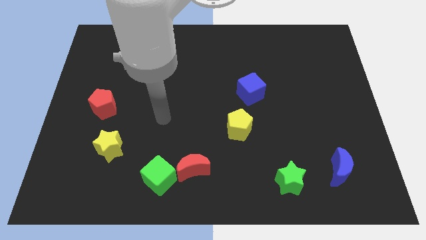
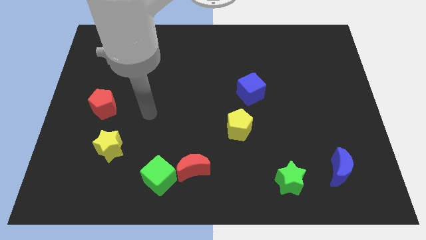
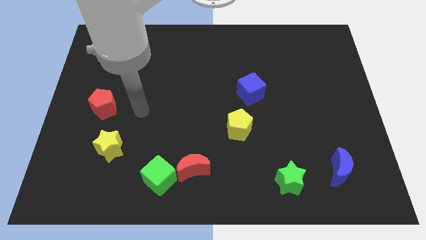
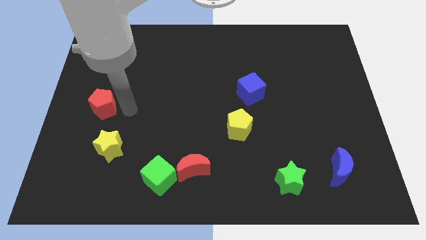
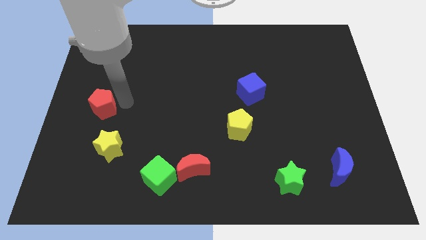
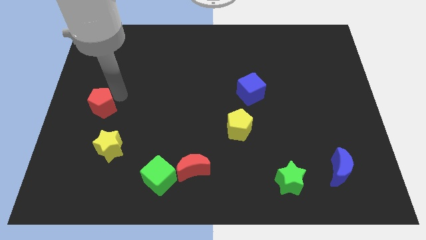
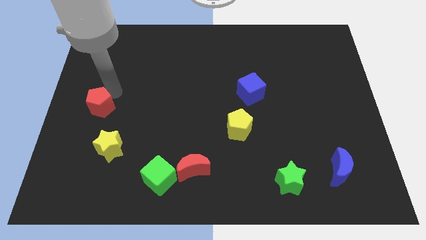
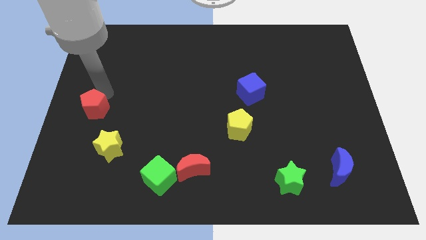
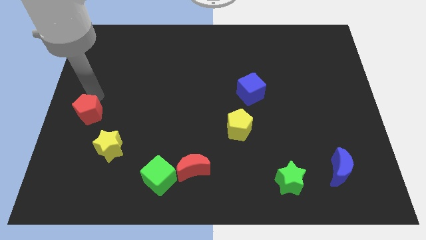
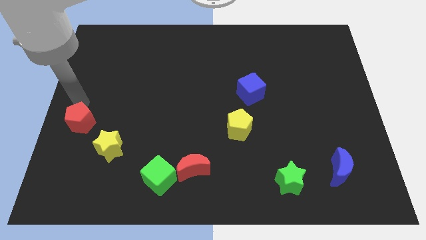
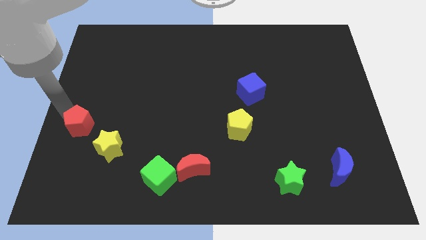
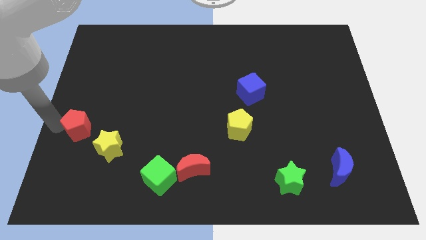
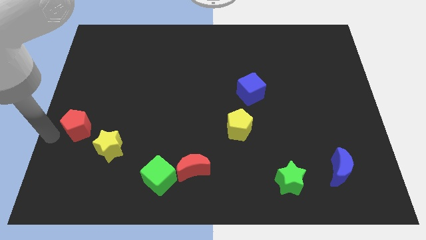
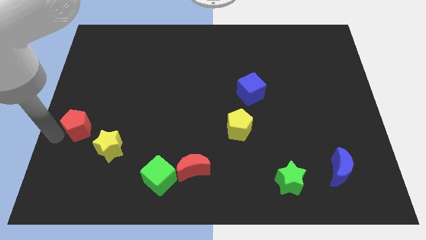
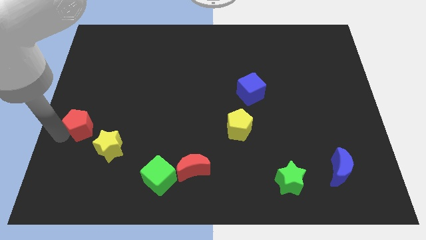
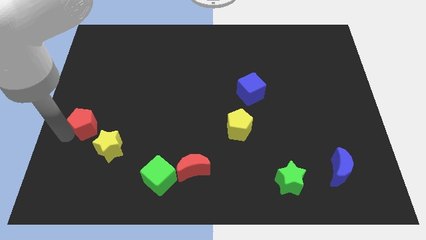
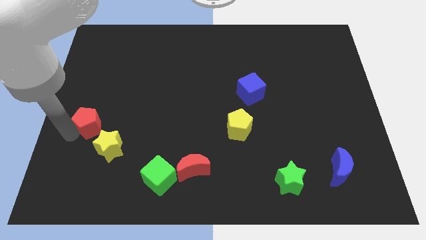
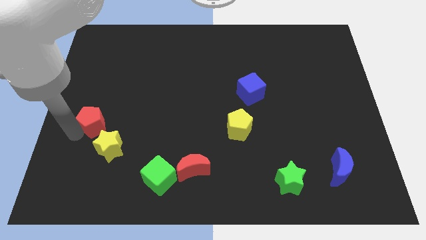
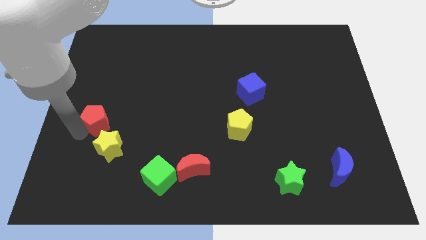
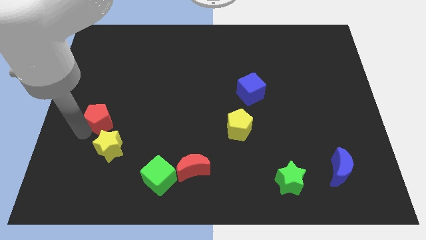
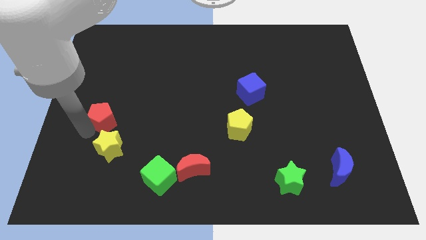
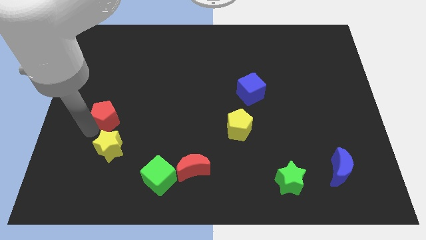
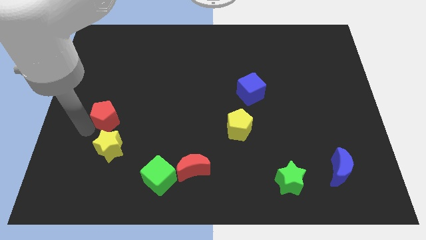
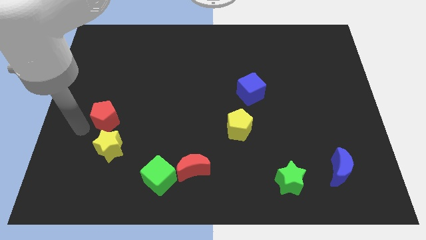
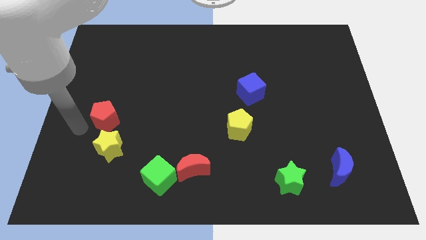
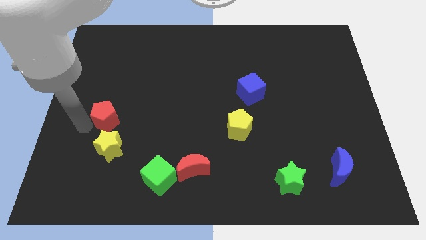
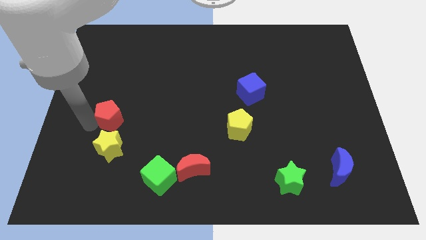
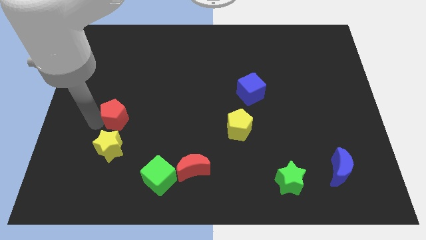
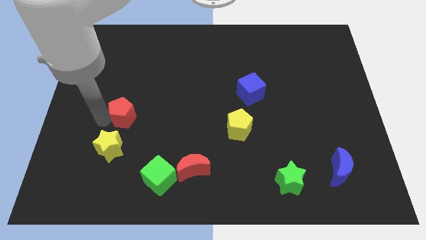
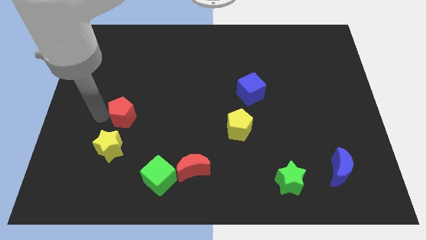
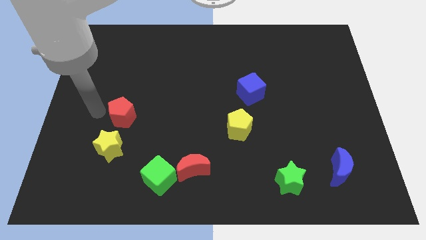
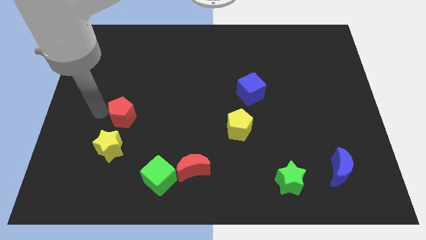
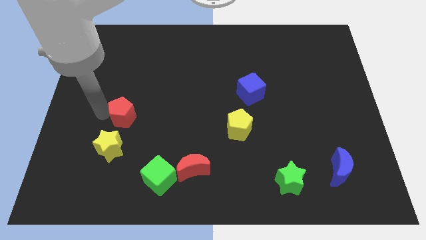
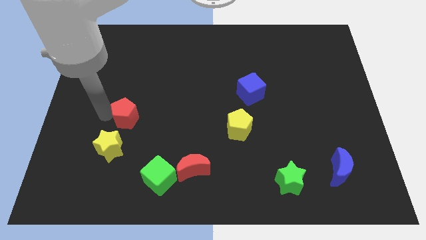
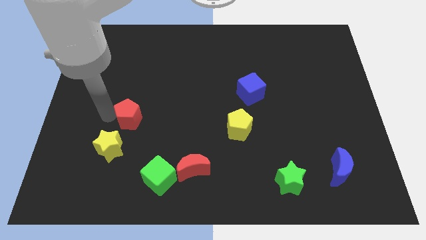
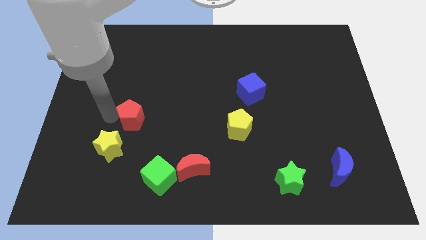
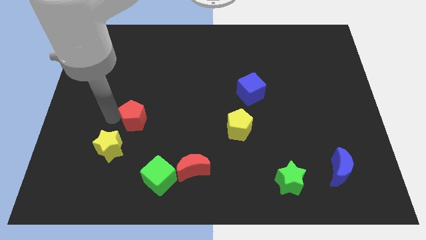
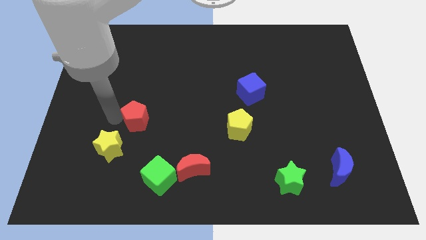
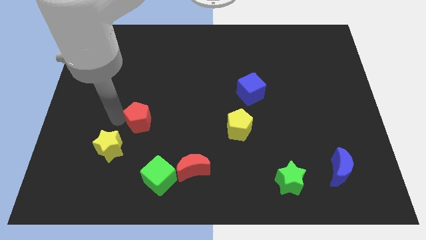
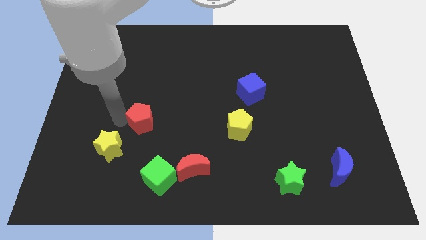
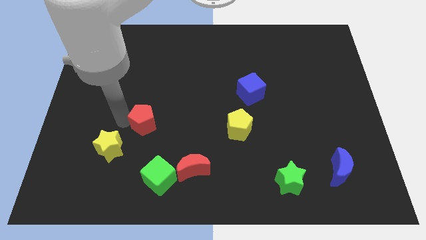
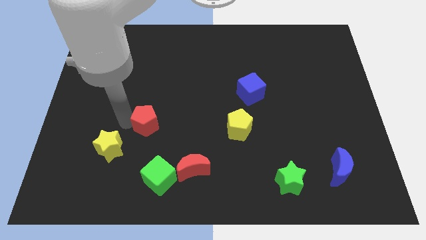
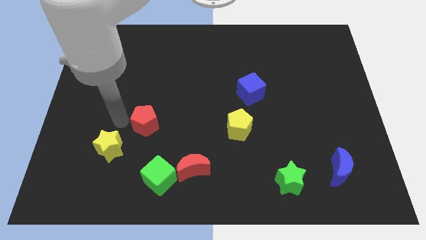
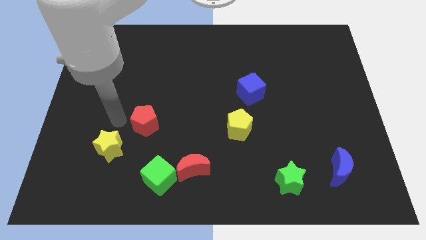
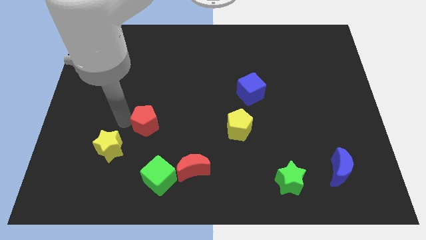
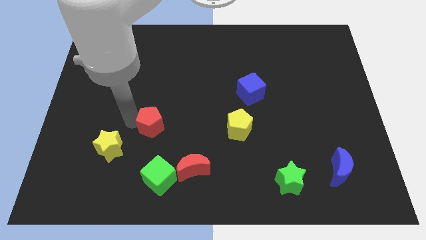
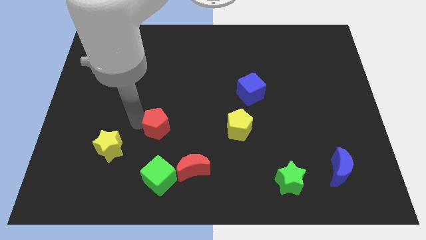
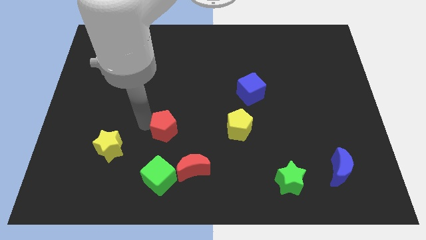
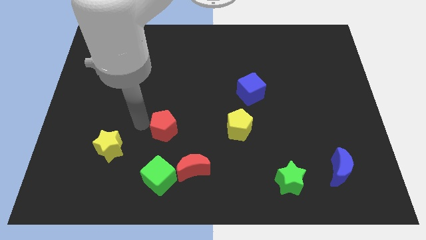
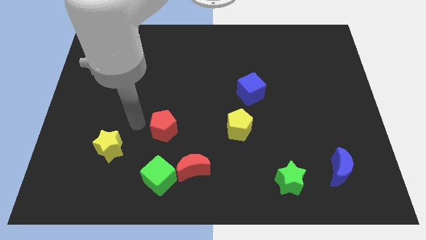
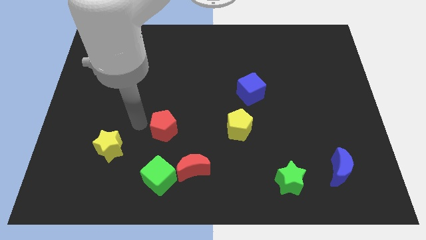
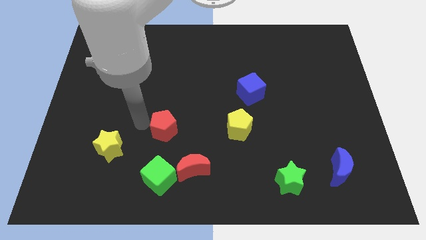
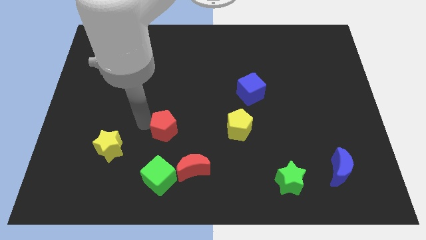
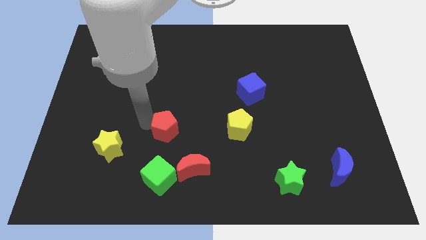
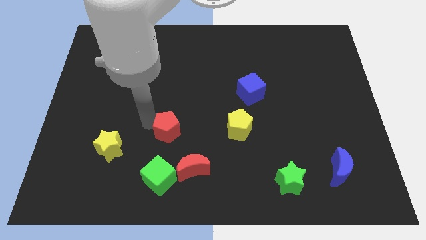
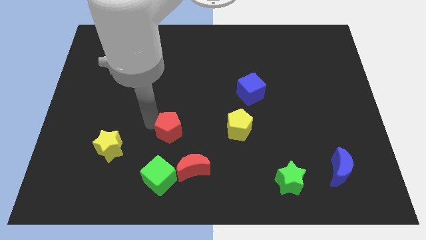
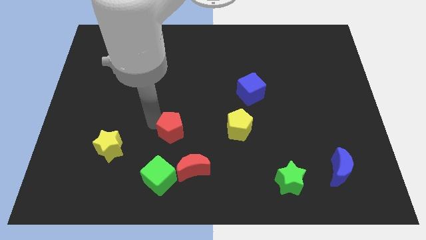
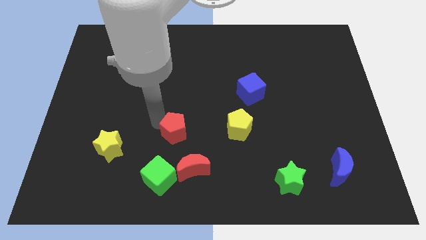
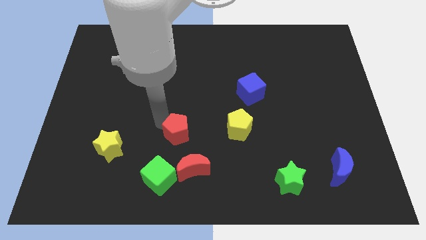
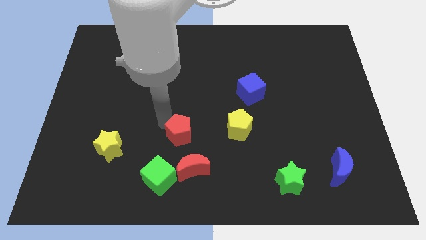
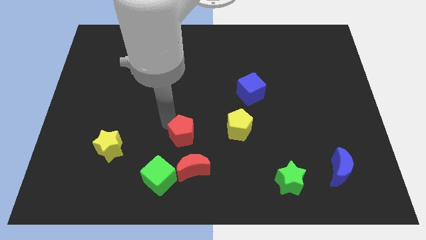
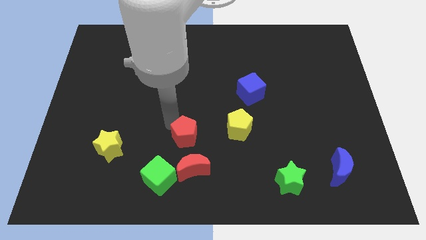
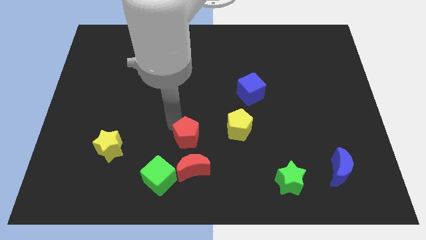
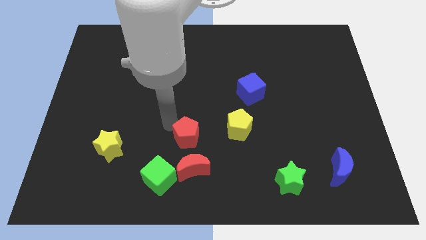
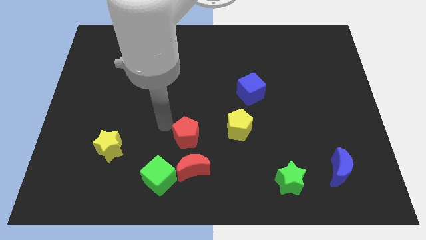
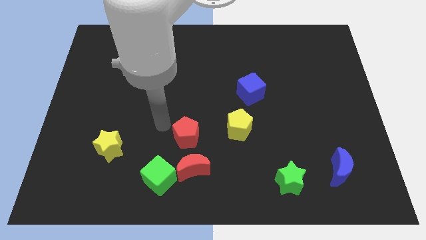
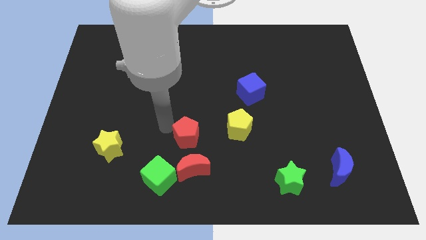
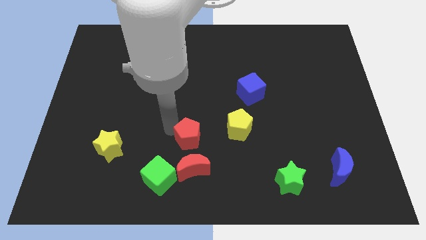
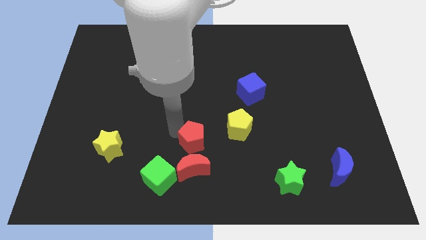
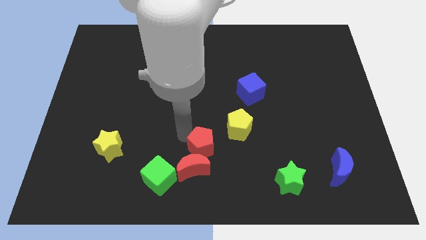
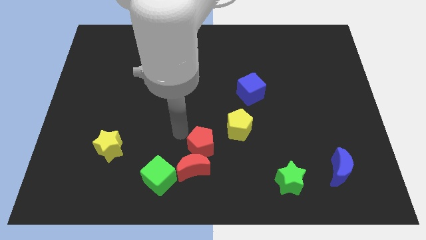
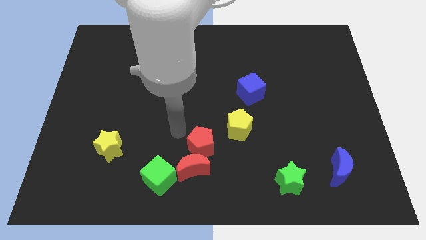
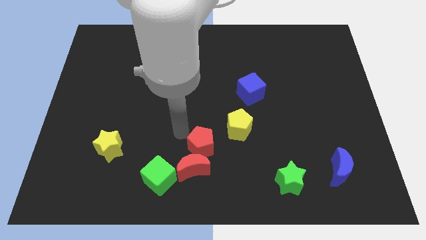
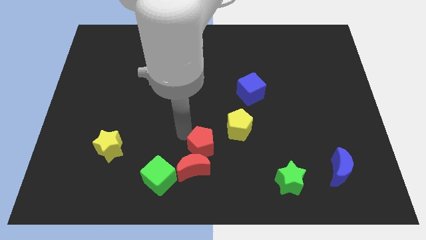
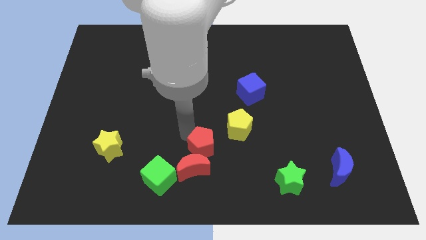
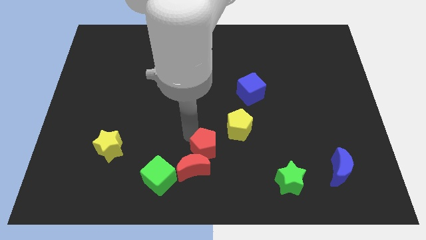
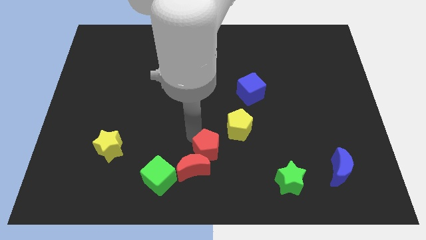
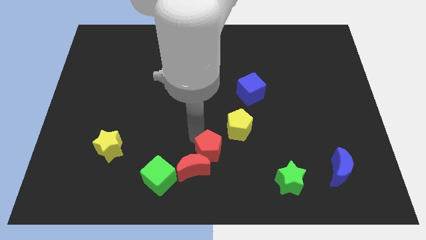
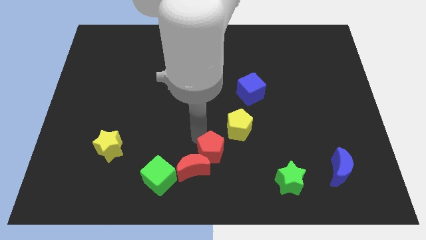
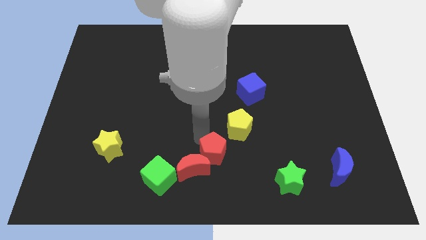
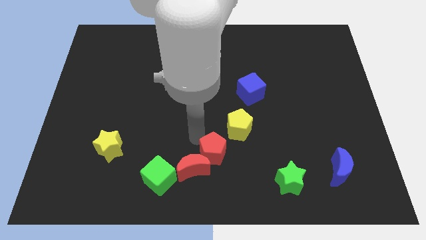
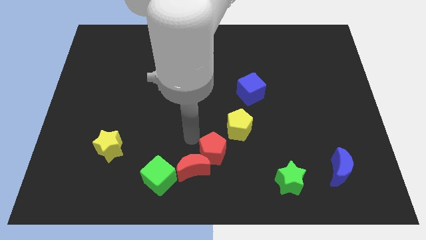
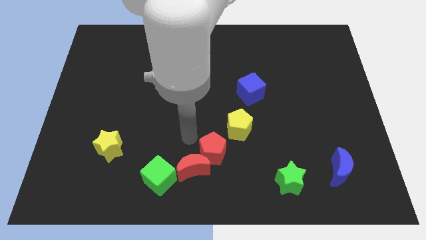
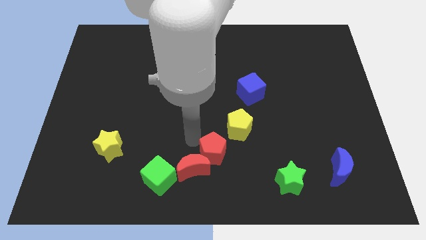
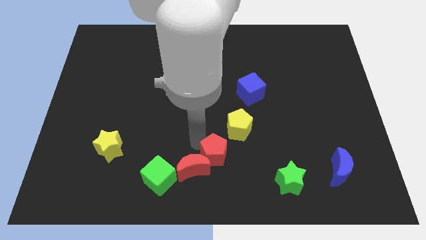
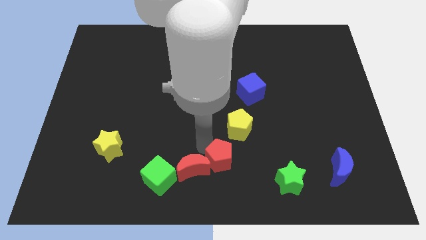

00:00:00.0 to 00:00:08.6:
put the red pentagon to the bottom side of the yellow pentagon
